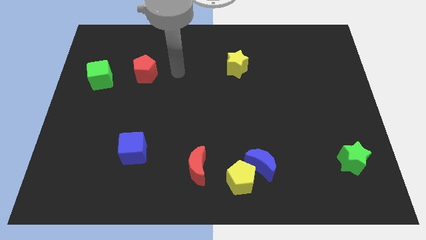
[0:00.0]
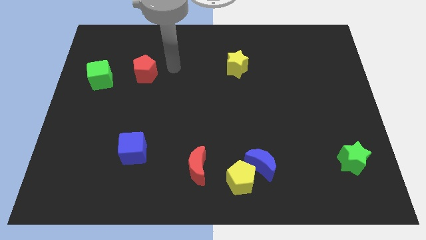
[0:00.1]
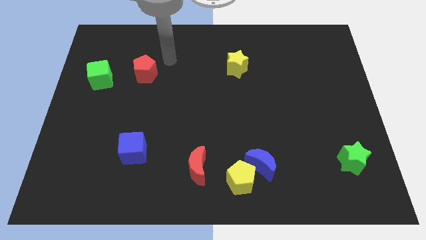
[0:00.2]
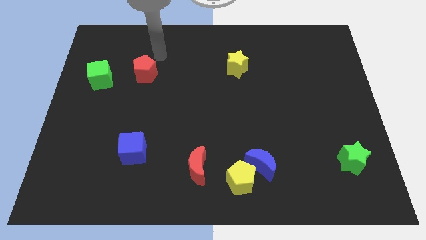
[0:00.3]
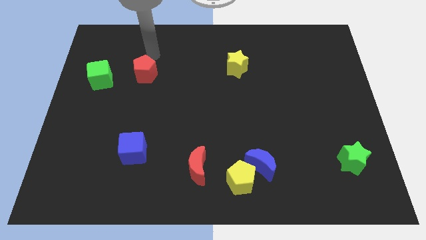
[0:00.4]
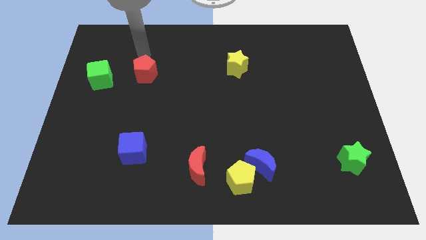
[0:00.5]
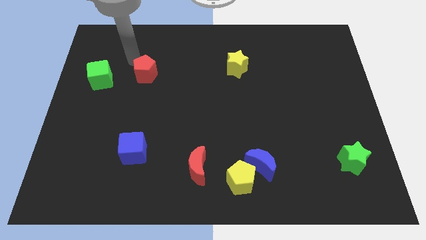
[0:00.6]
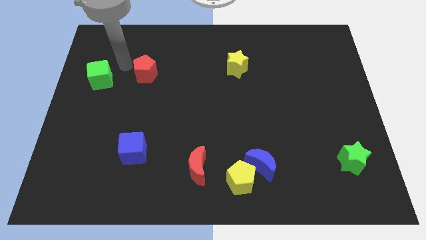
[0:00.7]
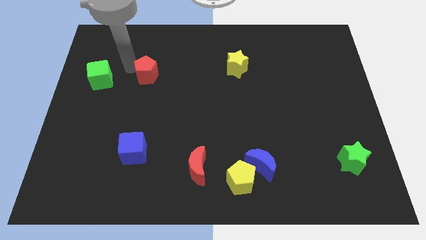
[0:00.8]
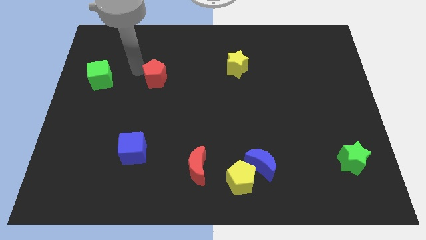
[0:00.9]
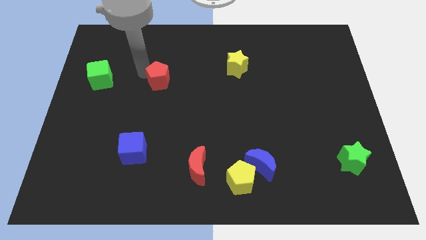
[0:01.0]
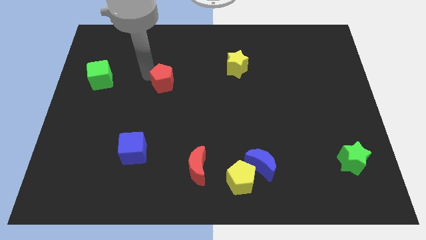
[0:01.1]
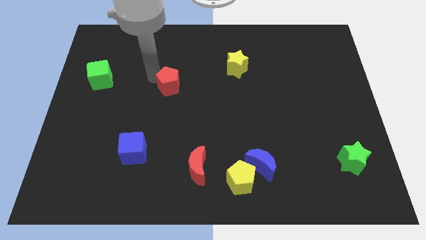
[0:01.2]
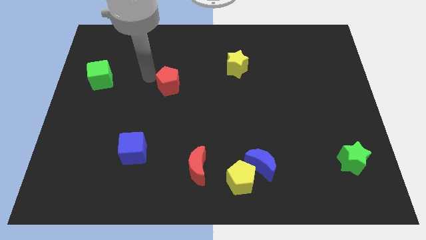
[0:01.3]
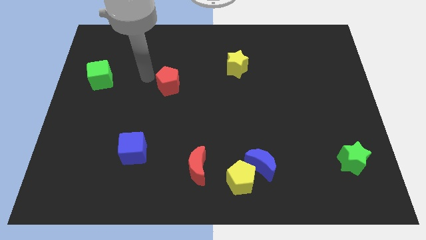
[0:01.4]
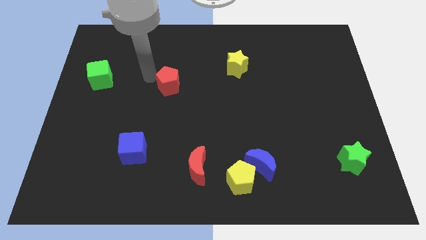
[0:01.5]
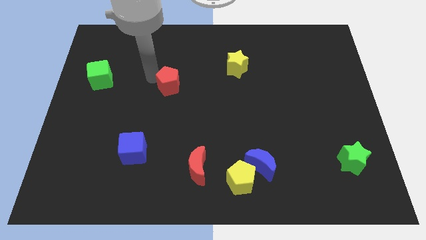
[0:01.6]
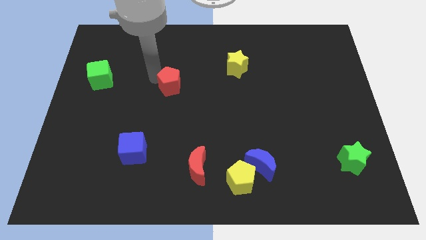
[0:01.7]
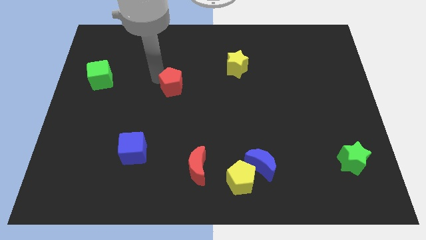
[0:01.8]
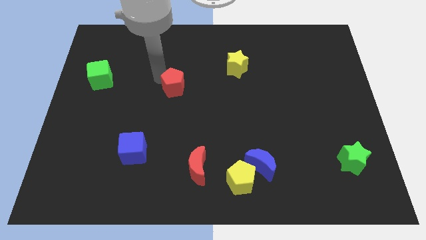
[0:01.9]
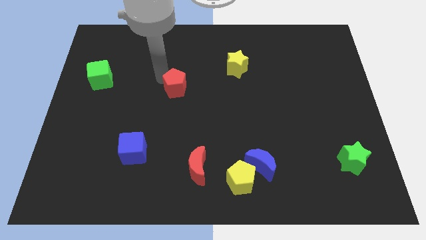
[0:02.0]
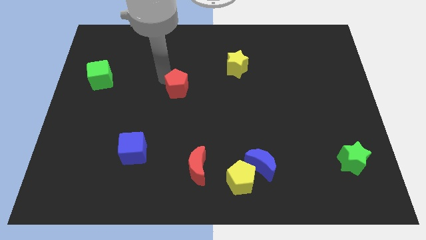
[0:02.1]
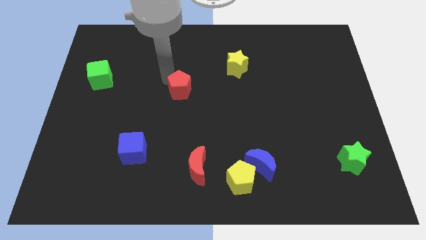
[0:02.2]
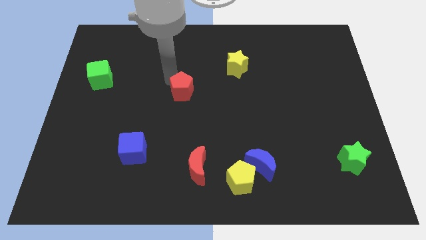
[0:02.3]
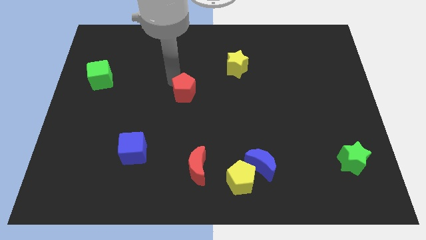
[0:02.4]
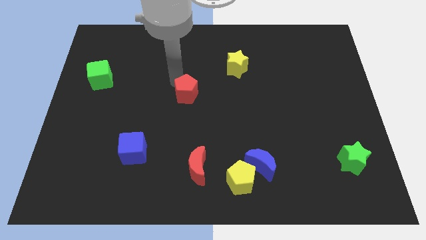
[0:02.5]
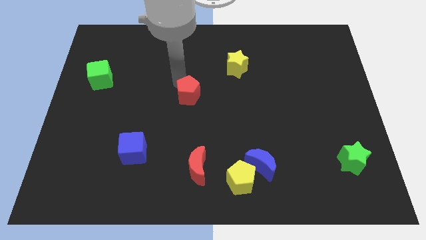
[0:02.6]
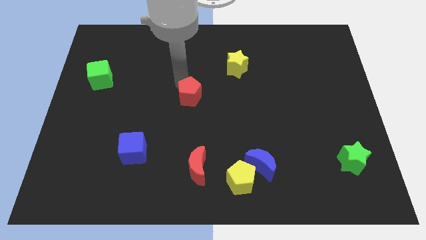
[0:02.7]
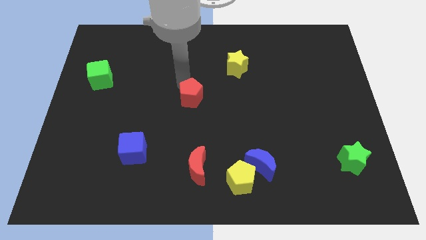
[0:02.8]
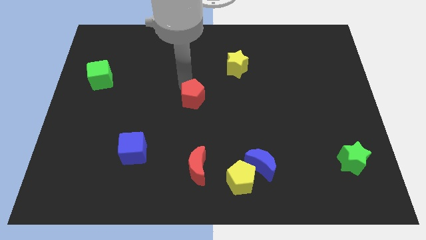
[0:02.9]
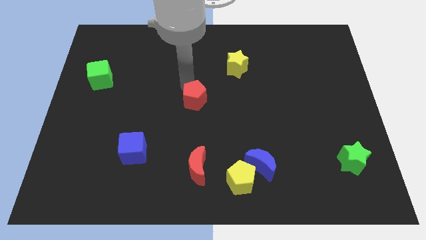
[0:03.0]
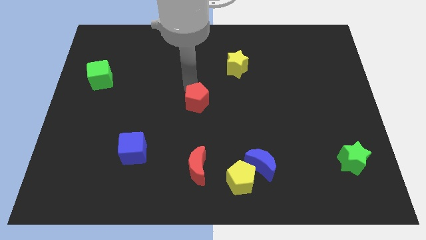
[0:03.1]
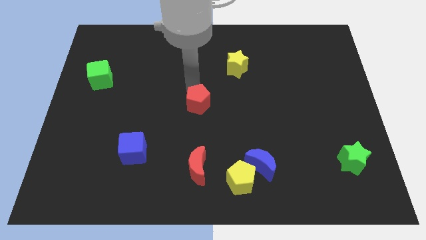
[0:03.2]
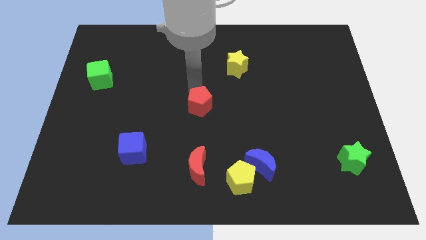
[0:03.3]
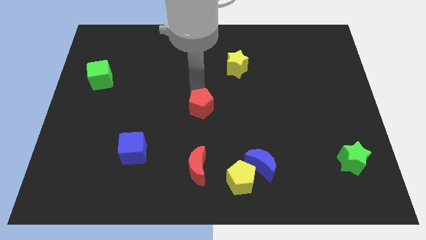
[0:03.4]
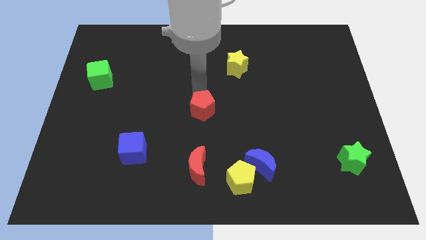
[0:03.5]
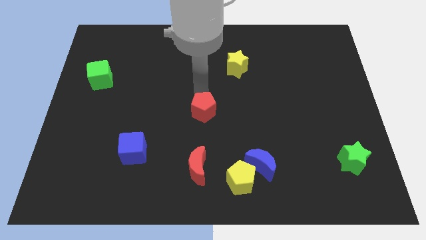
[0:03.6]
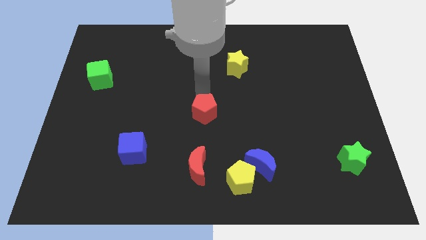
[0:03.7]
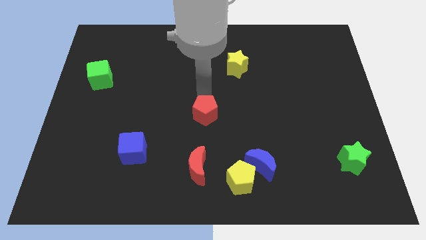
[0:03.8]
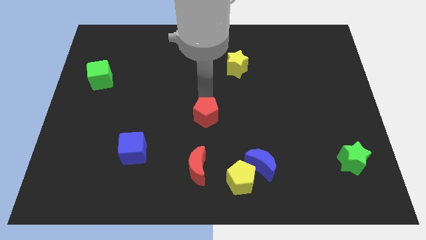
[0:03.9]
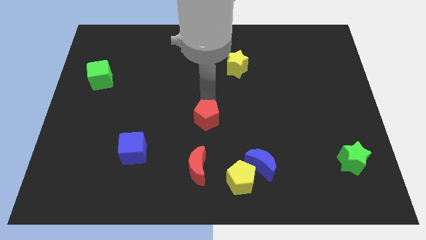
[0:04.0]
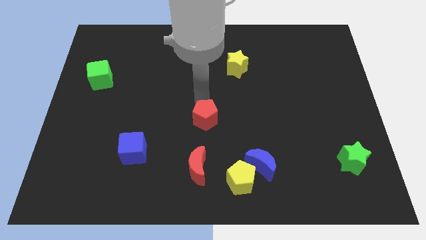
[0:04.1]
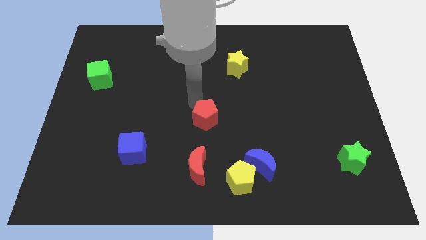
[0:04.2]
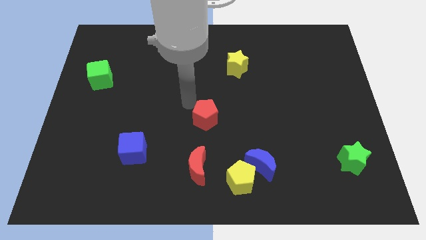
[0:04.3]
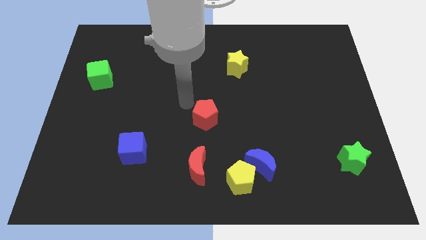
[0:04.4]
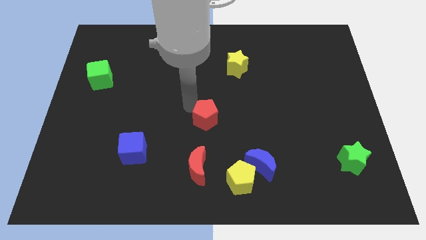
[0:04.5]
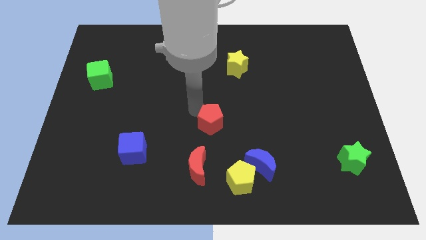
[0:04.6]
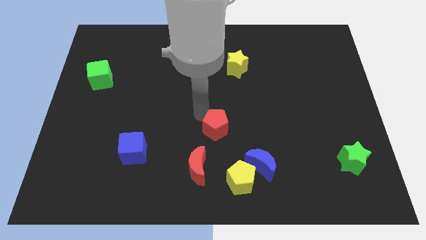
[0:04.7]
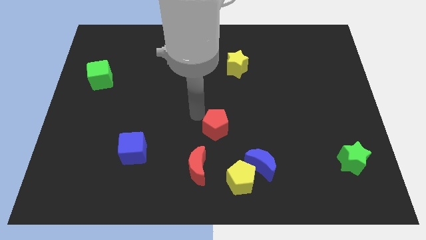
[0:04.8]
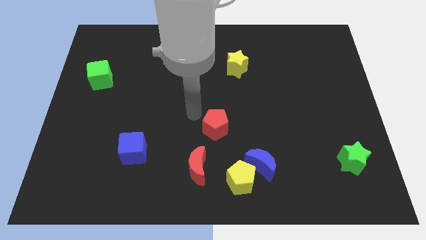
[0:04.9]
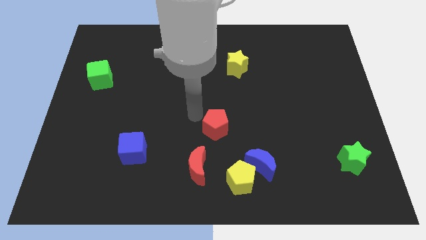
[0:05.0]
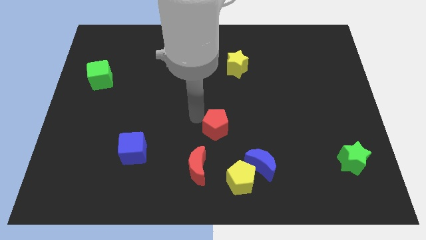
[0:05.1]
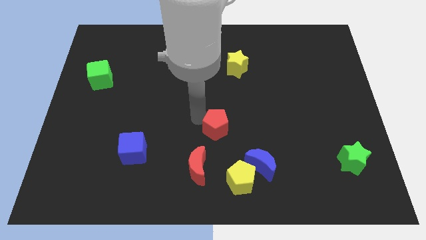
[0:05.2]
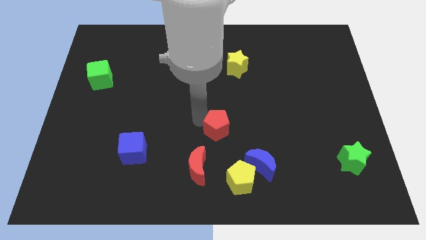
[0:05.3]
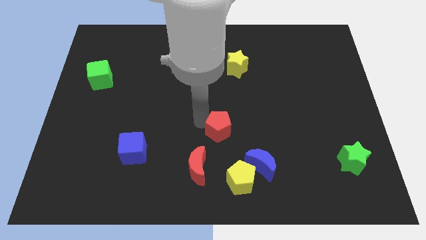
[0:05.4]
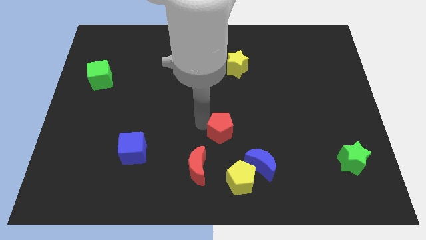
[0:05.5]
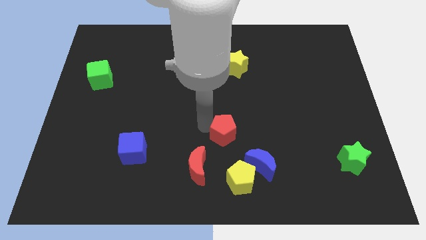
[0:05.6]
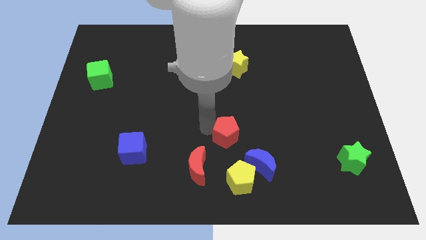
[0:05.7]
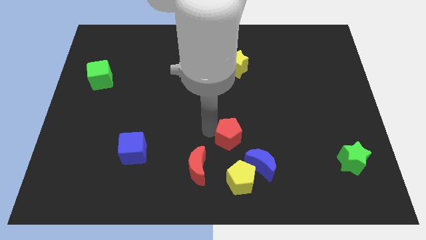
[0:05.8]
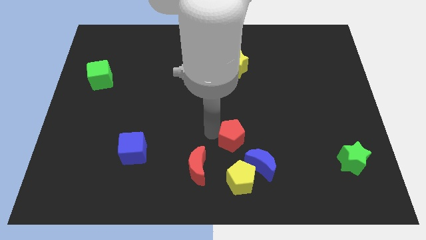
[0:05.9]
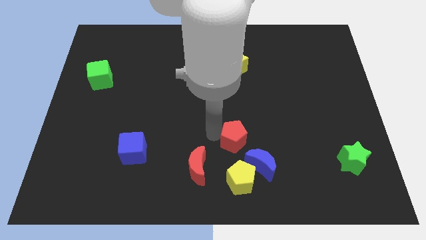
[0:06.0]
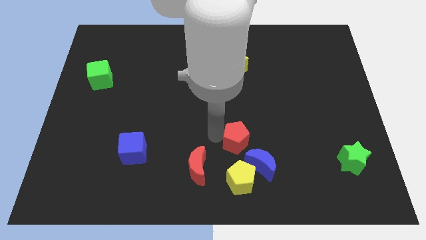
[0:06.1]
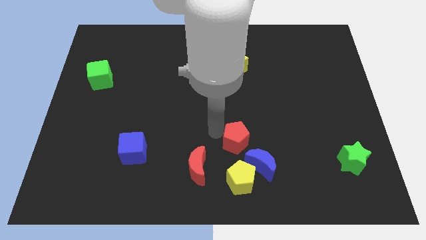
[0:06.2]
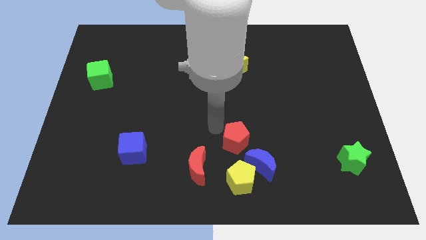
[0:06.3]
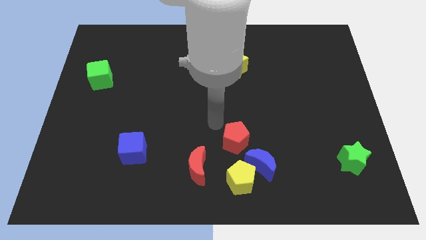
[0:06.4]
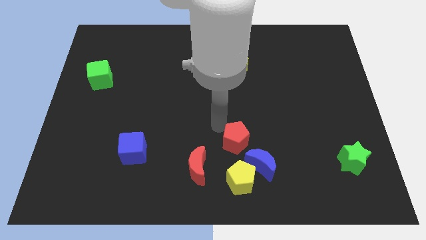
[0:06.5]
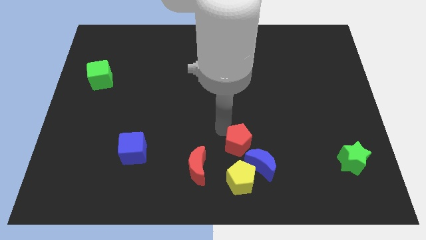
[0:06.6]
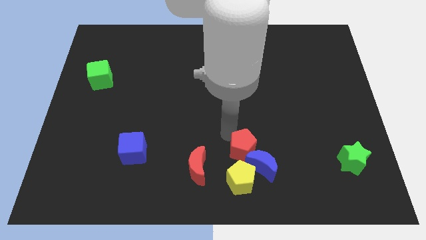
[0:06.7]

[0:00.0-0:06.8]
slide the red pentagon next to the blue moon
